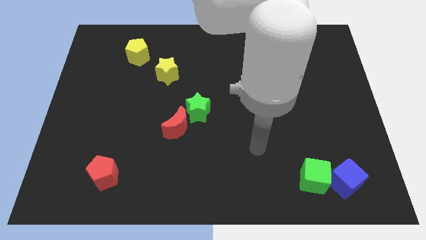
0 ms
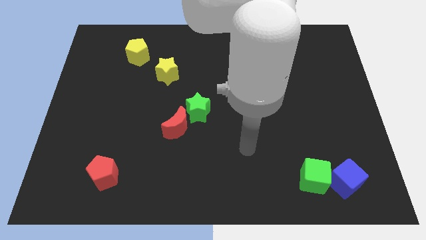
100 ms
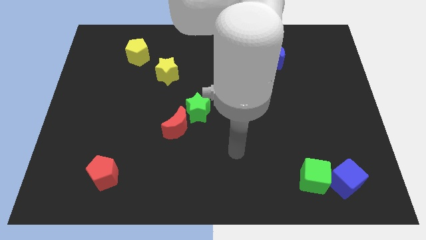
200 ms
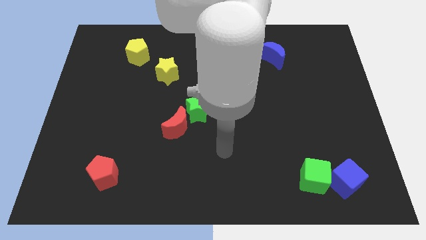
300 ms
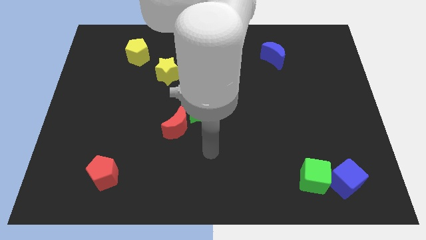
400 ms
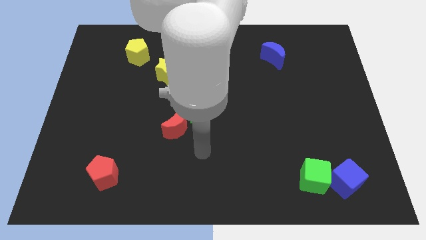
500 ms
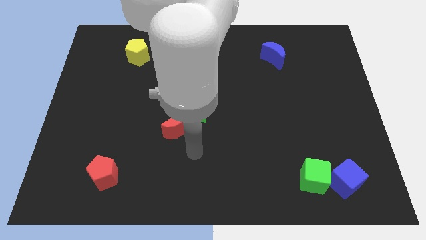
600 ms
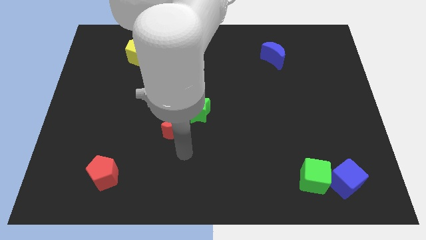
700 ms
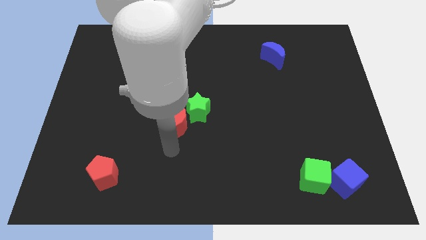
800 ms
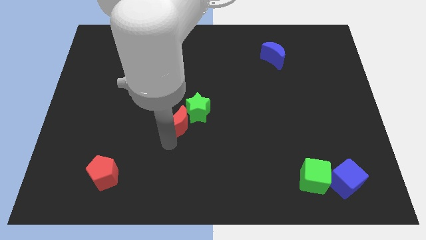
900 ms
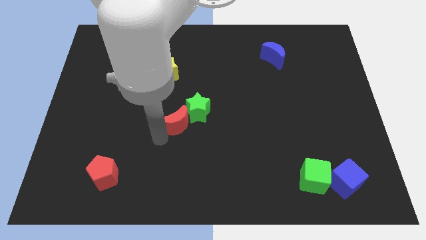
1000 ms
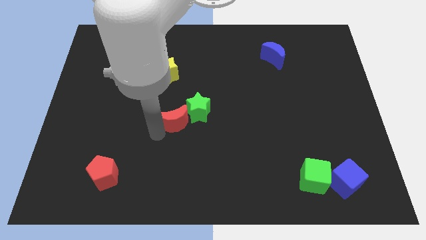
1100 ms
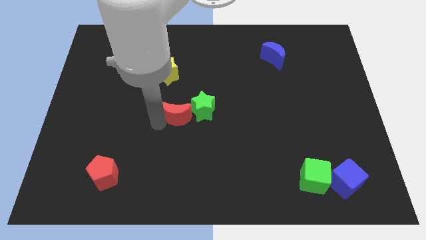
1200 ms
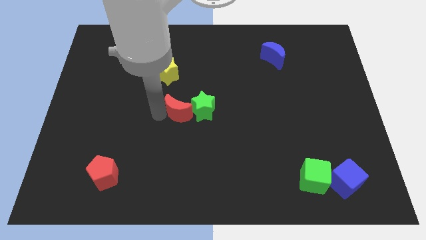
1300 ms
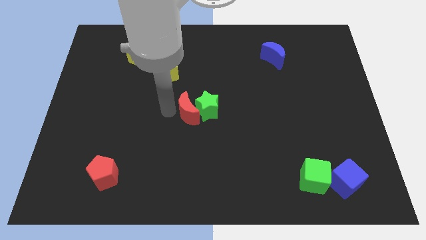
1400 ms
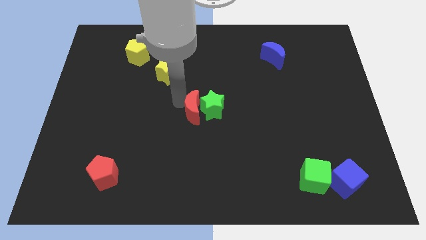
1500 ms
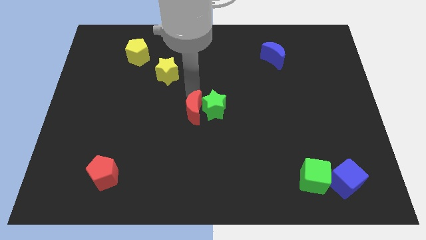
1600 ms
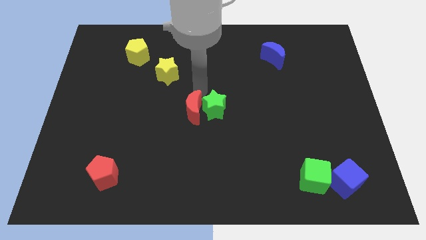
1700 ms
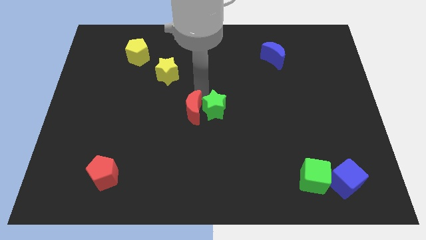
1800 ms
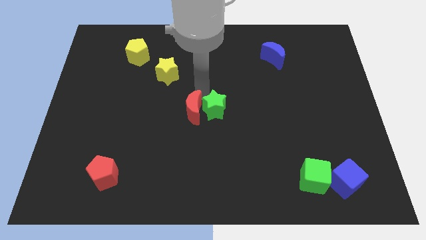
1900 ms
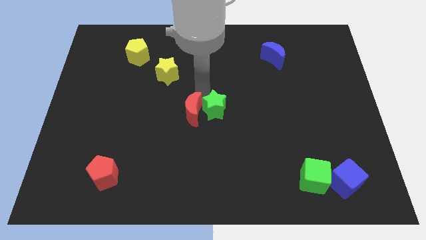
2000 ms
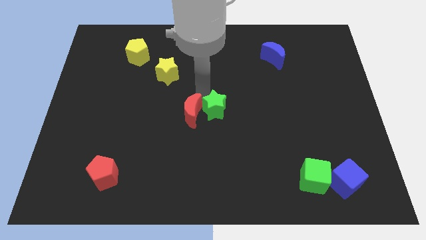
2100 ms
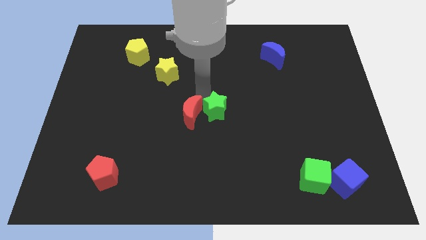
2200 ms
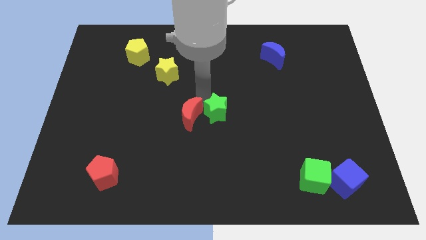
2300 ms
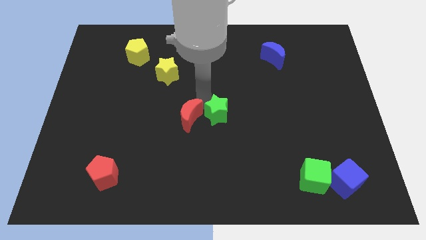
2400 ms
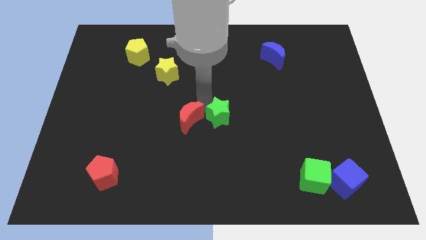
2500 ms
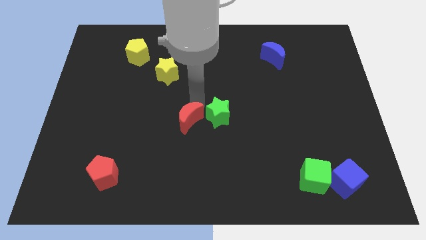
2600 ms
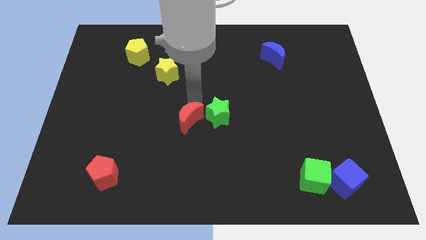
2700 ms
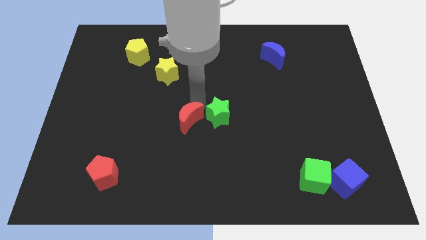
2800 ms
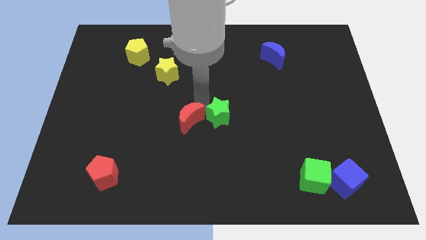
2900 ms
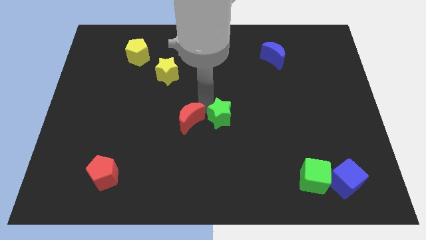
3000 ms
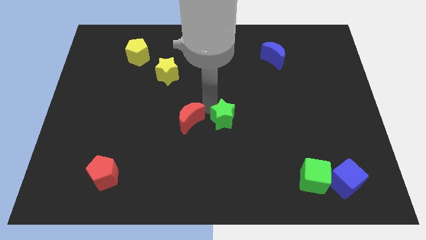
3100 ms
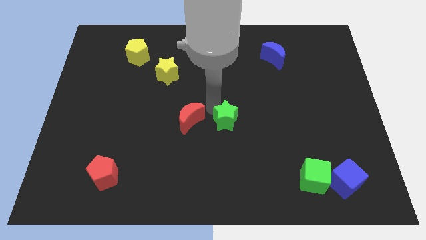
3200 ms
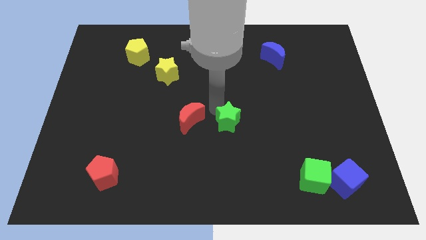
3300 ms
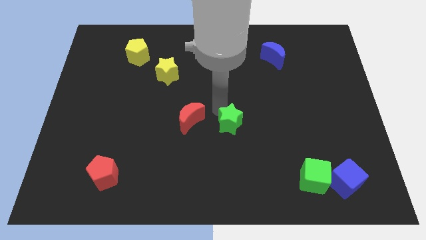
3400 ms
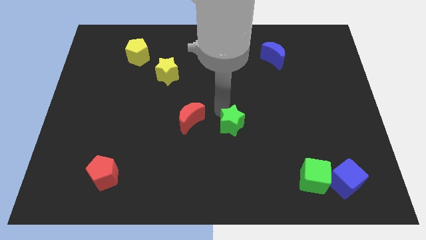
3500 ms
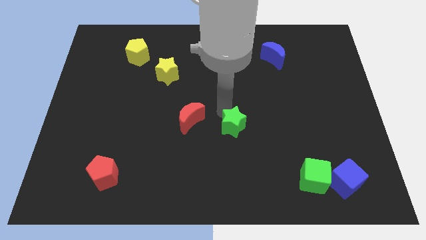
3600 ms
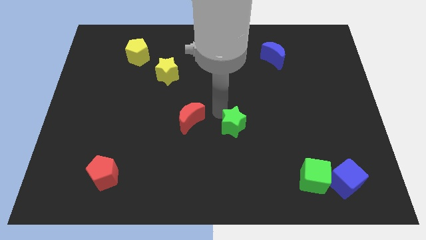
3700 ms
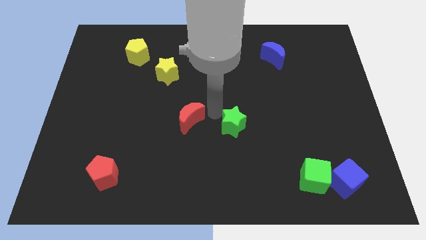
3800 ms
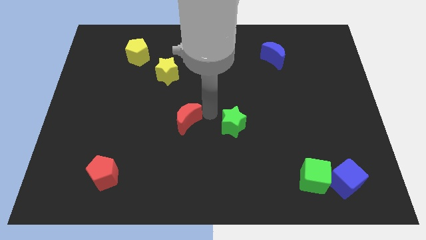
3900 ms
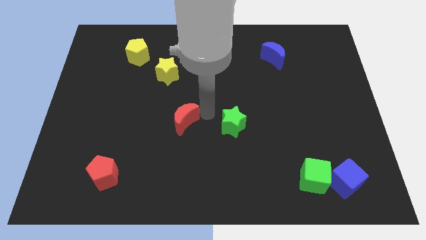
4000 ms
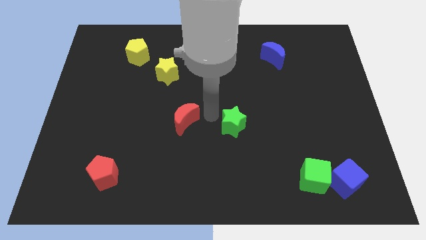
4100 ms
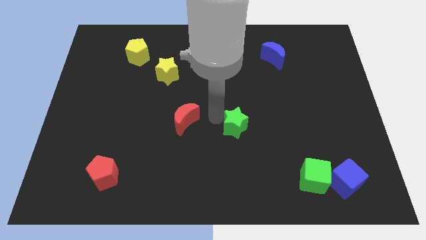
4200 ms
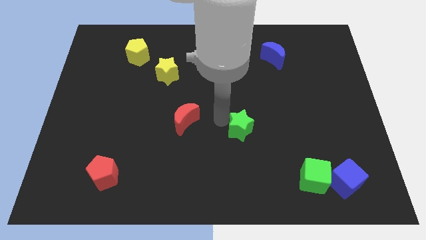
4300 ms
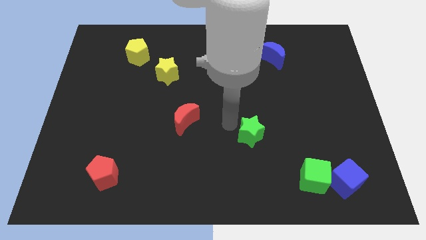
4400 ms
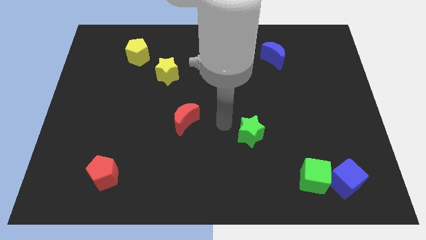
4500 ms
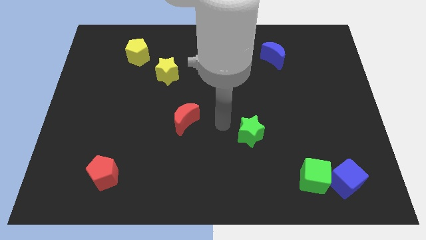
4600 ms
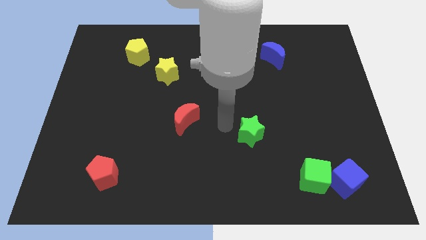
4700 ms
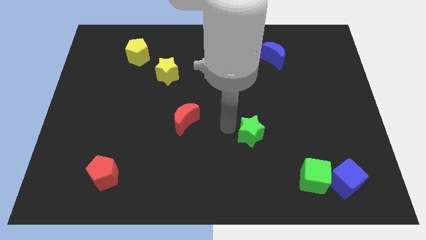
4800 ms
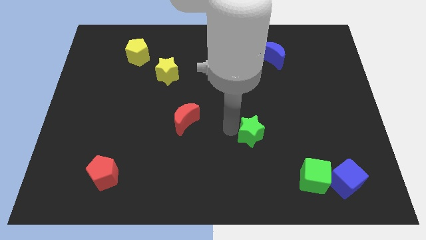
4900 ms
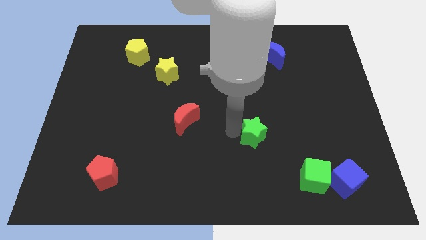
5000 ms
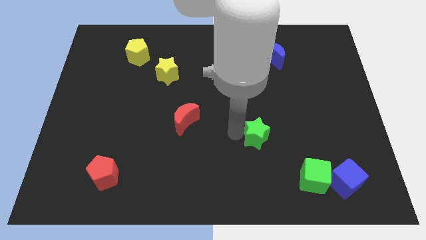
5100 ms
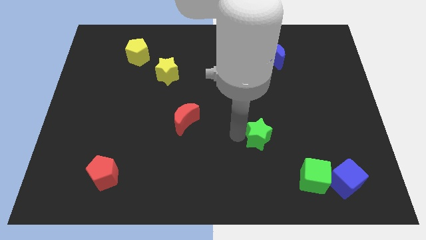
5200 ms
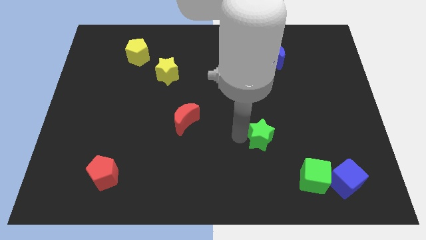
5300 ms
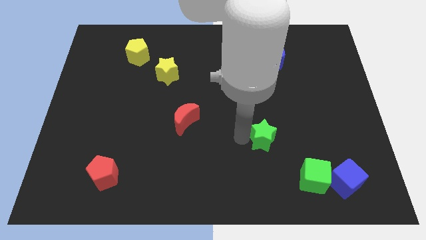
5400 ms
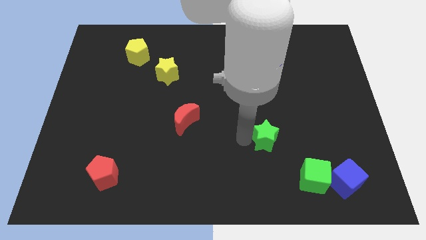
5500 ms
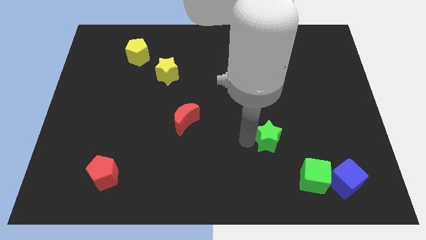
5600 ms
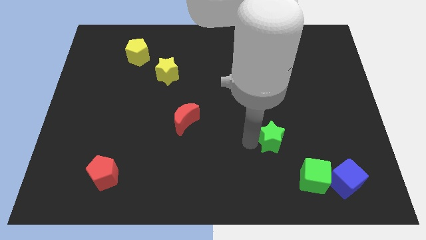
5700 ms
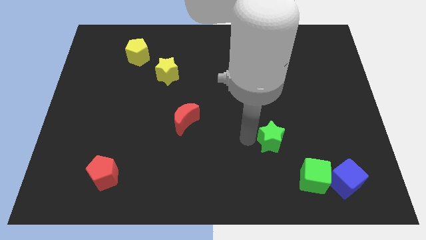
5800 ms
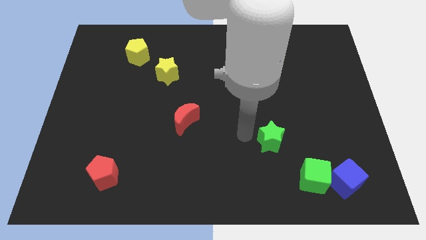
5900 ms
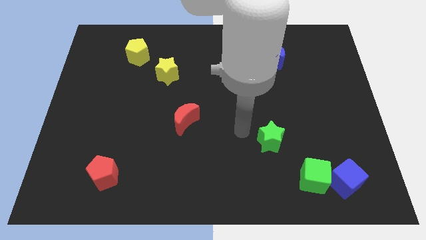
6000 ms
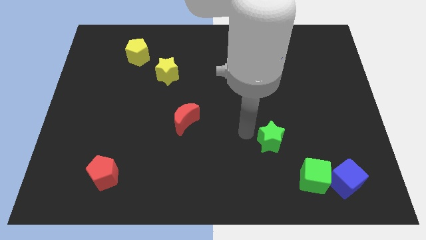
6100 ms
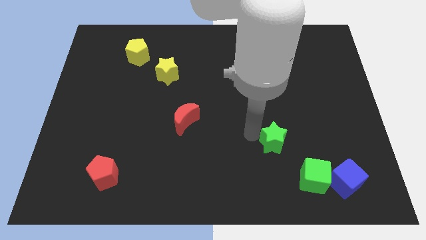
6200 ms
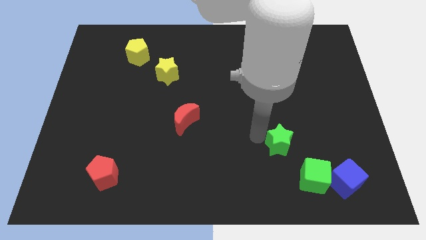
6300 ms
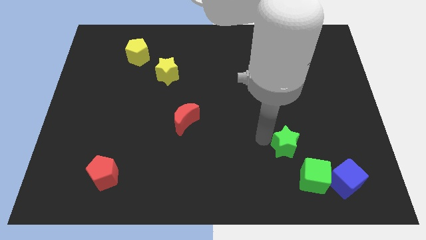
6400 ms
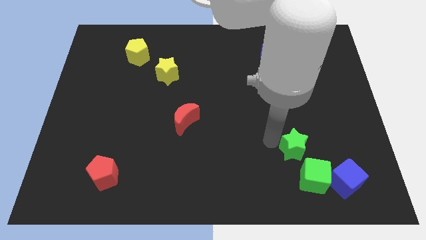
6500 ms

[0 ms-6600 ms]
slide the green star to the top left side of the blue cube

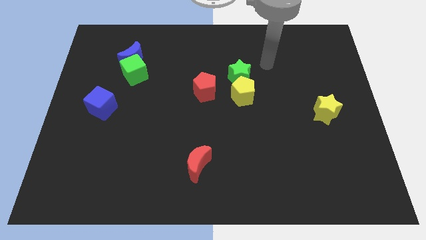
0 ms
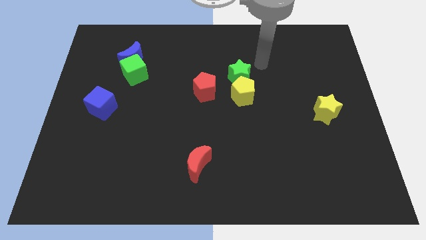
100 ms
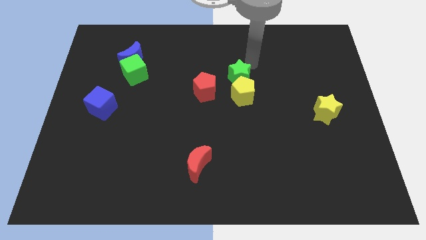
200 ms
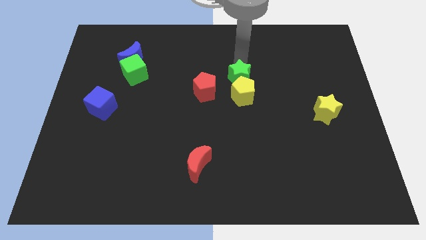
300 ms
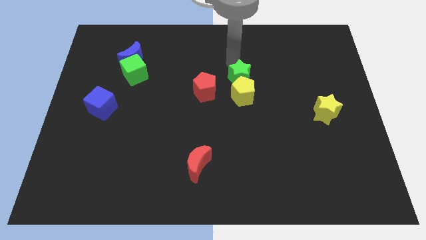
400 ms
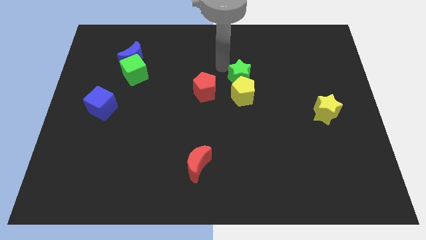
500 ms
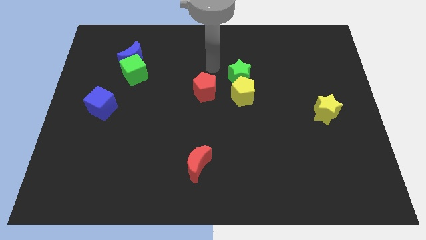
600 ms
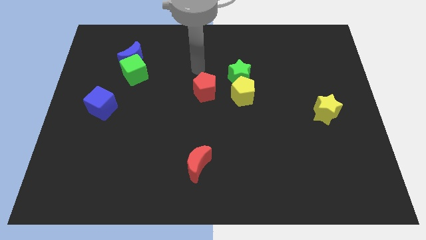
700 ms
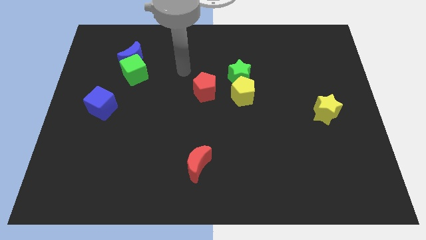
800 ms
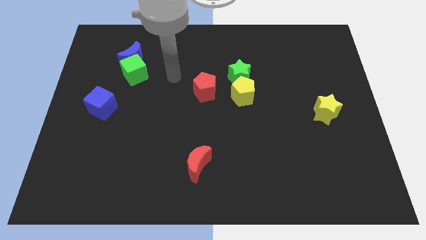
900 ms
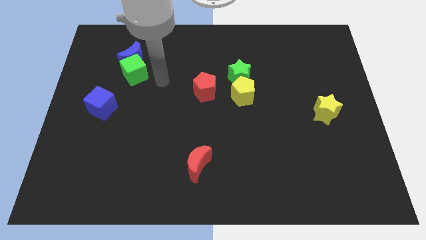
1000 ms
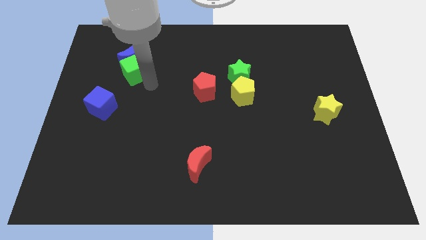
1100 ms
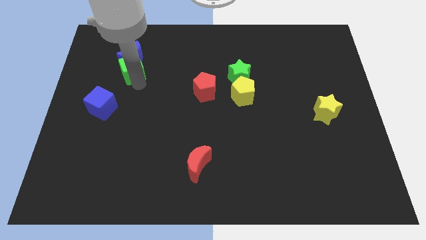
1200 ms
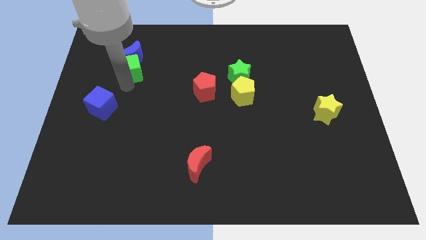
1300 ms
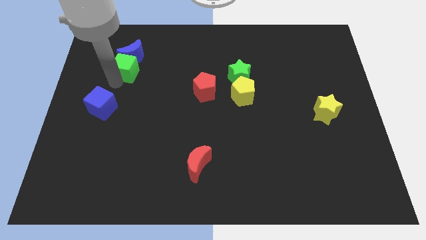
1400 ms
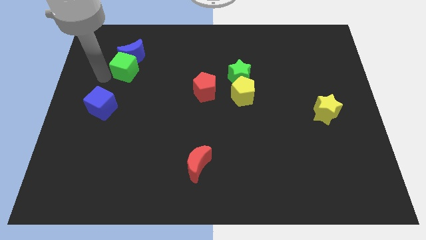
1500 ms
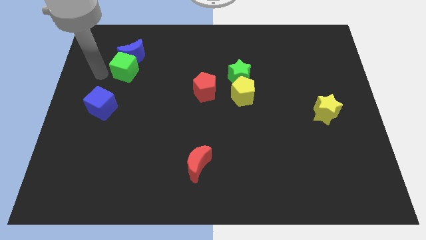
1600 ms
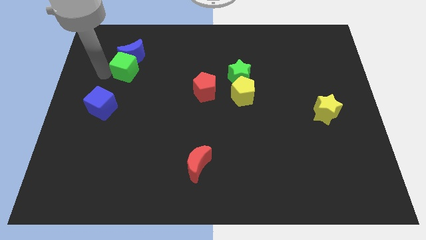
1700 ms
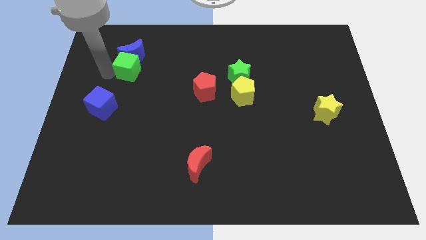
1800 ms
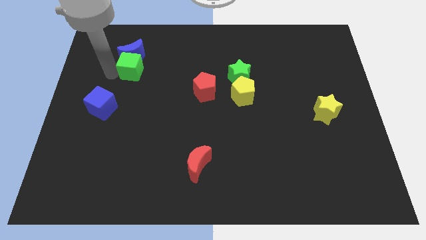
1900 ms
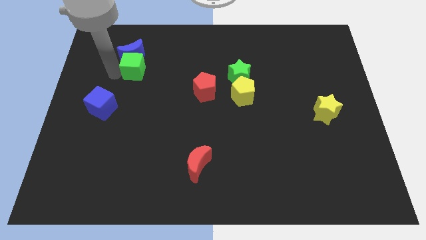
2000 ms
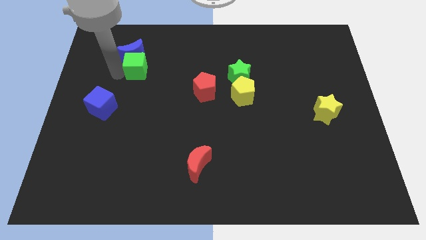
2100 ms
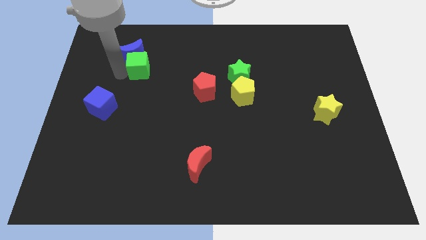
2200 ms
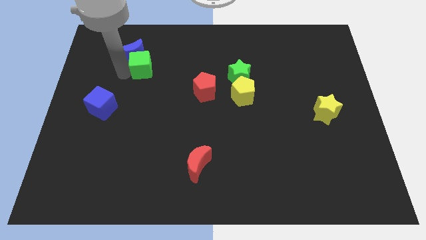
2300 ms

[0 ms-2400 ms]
put the green cube right of the blue moon
